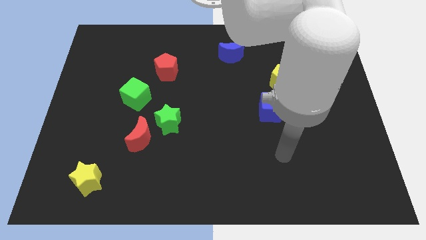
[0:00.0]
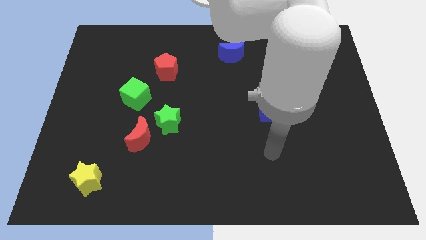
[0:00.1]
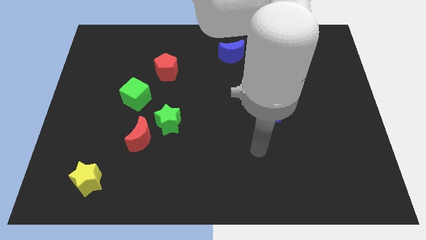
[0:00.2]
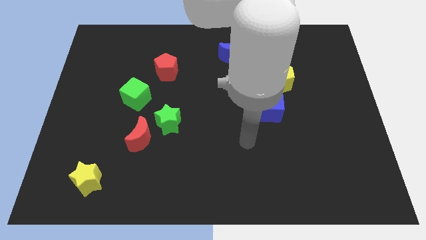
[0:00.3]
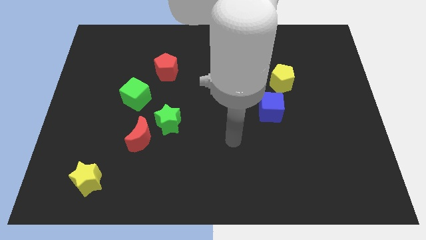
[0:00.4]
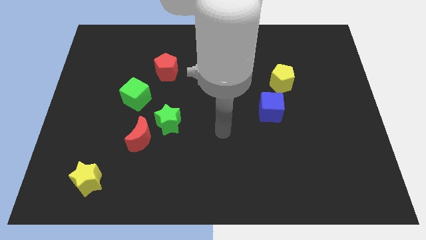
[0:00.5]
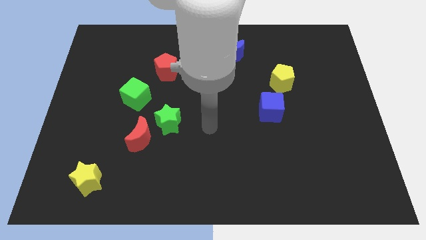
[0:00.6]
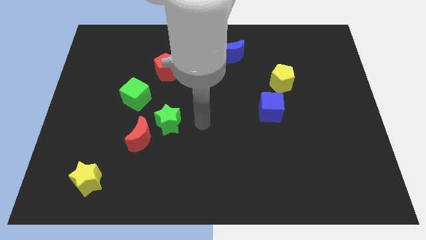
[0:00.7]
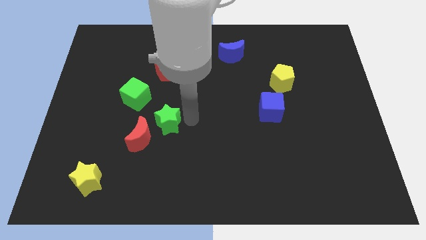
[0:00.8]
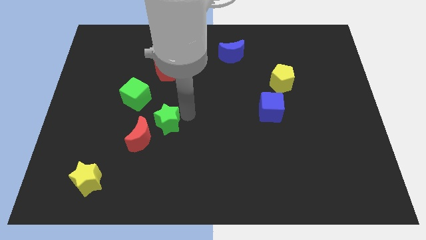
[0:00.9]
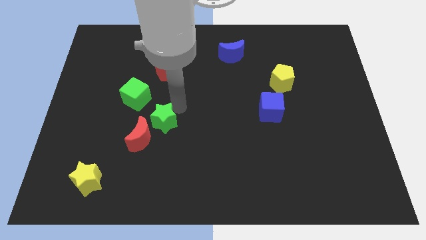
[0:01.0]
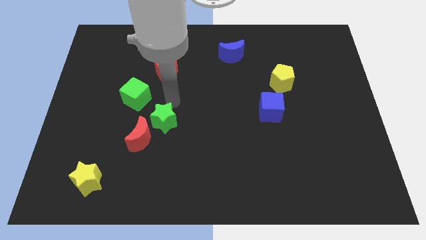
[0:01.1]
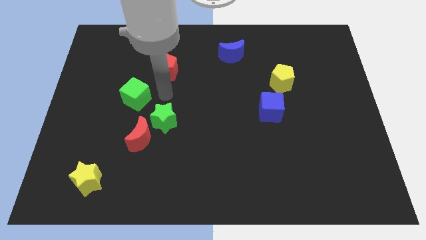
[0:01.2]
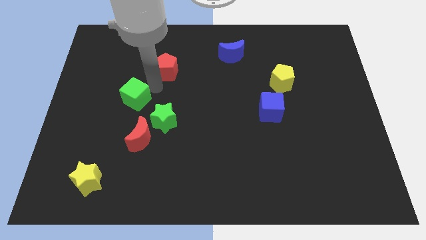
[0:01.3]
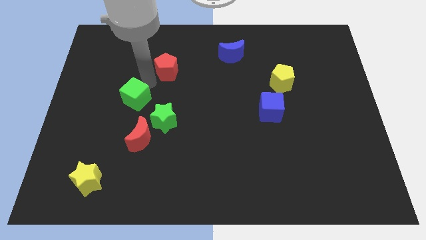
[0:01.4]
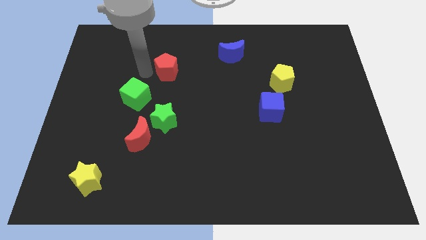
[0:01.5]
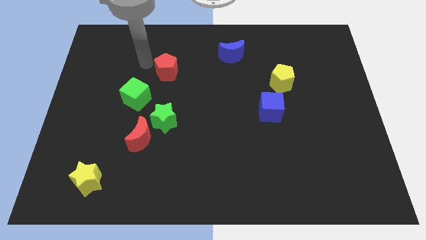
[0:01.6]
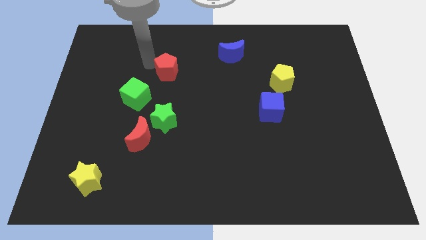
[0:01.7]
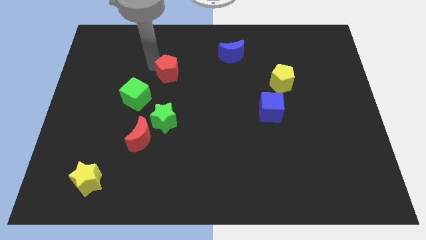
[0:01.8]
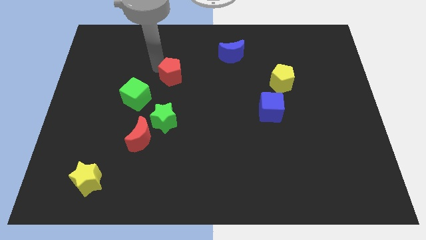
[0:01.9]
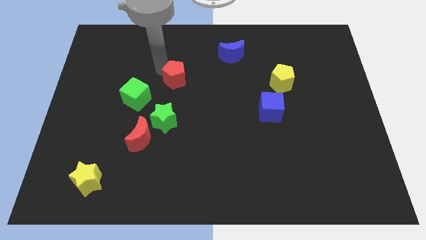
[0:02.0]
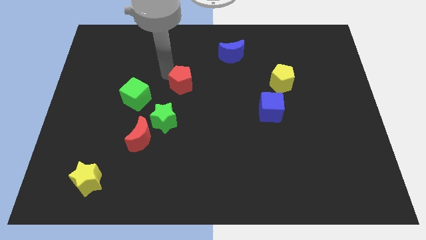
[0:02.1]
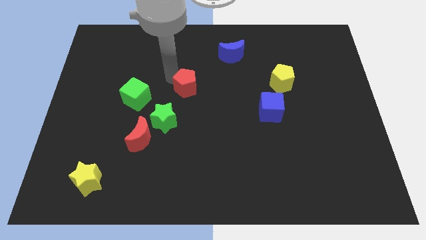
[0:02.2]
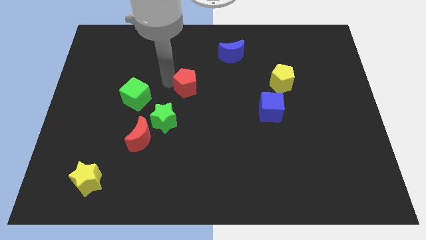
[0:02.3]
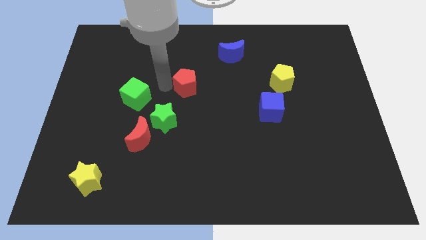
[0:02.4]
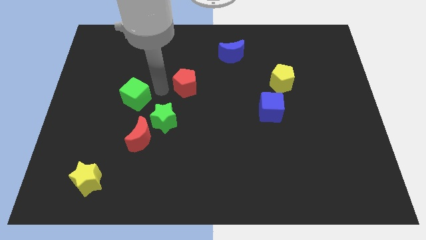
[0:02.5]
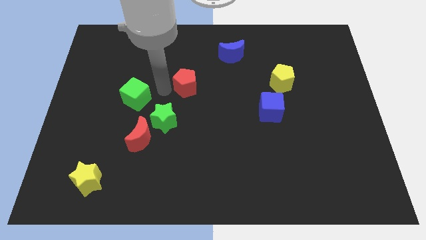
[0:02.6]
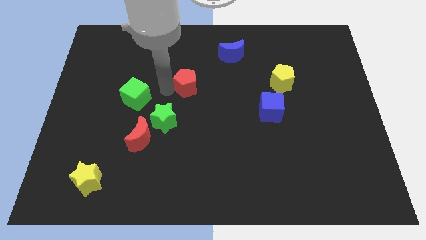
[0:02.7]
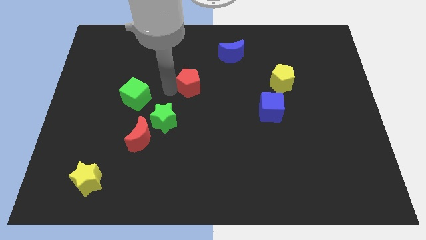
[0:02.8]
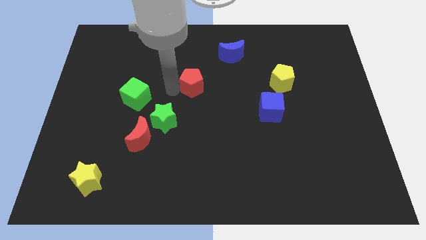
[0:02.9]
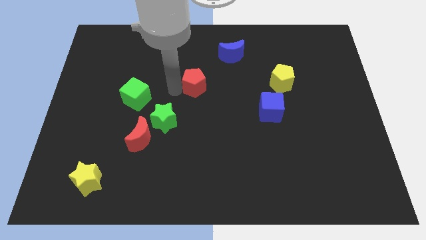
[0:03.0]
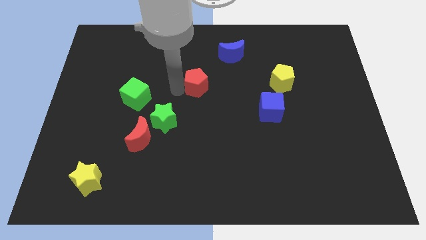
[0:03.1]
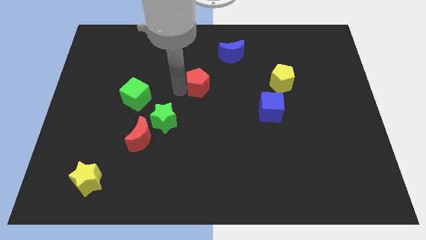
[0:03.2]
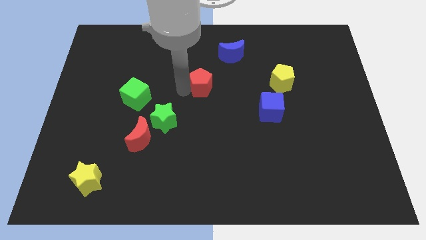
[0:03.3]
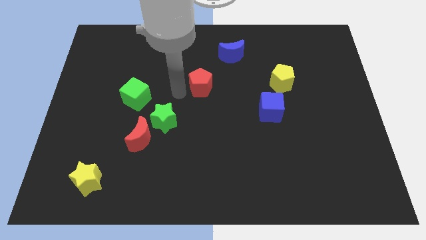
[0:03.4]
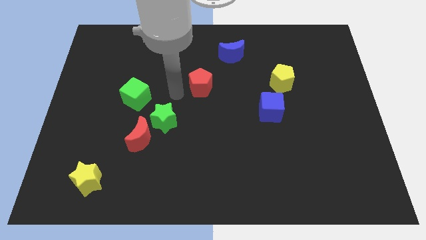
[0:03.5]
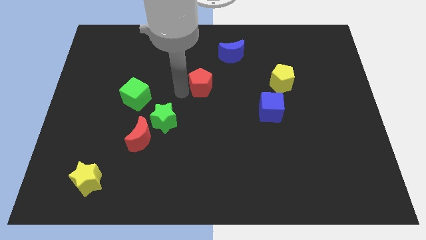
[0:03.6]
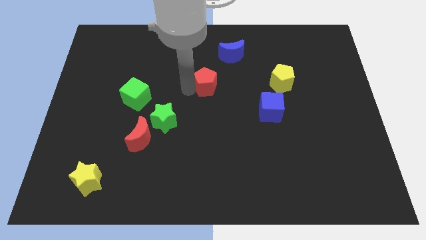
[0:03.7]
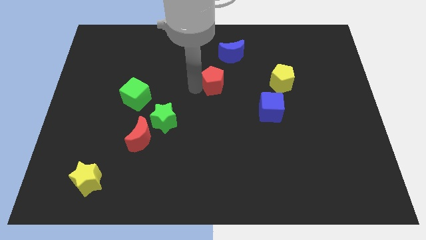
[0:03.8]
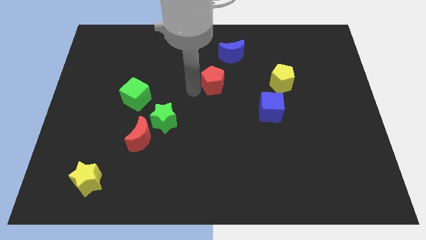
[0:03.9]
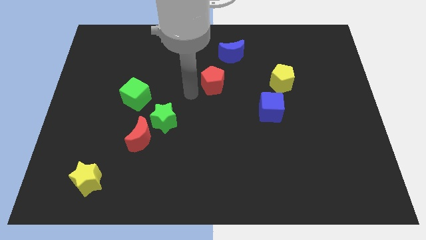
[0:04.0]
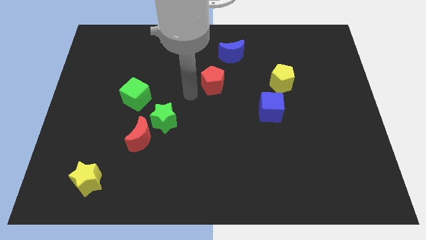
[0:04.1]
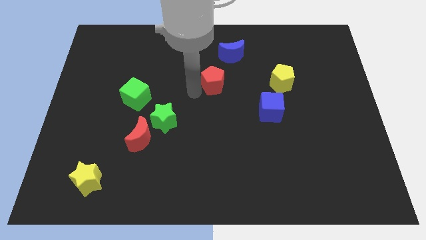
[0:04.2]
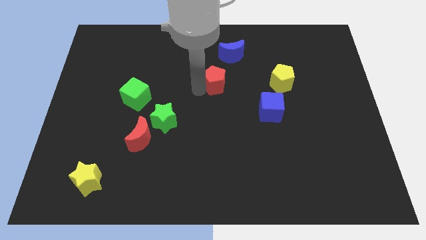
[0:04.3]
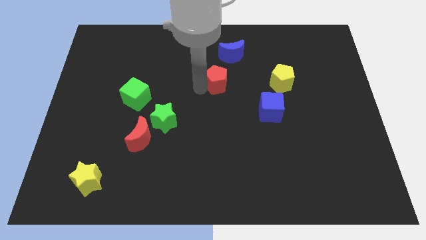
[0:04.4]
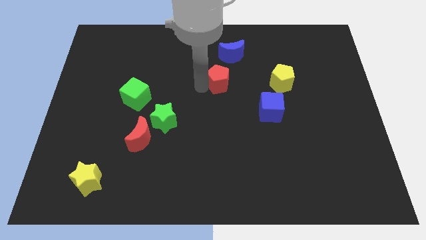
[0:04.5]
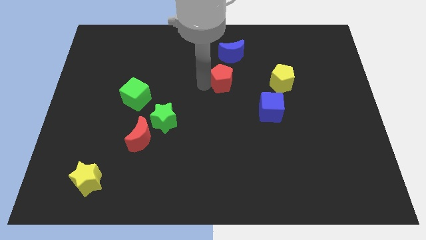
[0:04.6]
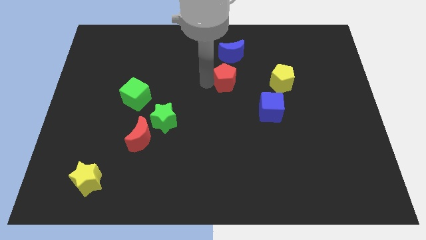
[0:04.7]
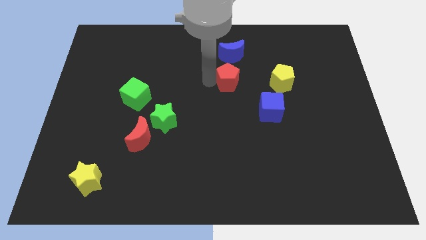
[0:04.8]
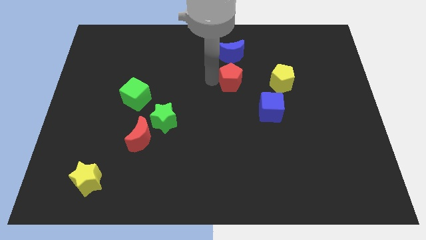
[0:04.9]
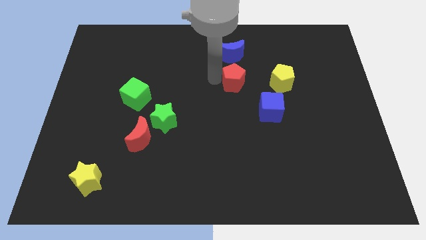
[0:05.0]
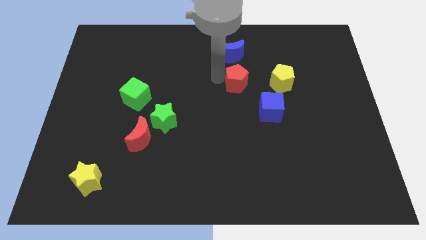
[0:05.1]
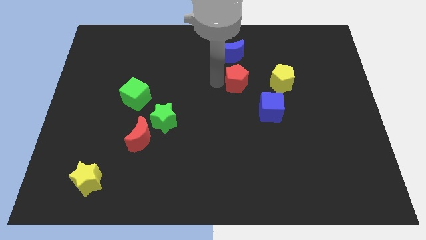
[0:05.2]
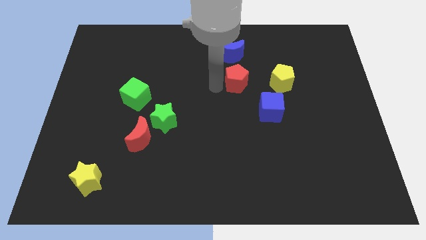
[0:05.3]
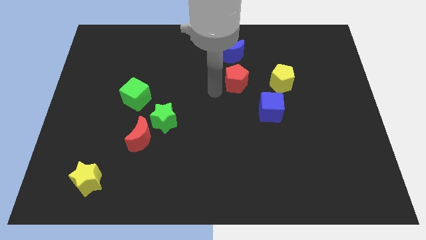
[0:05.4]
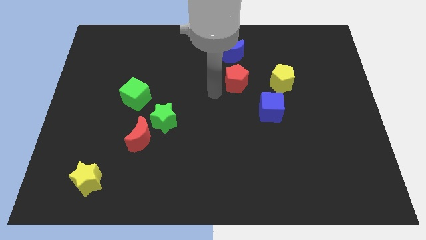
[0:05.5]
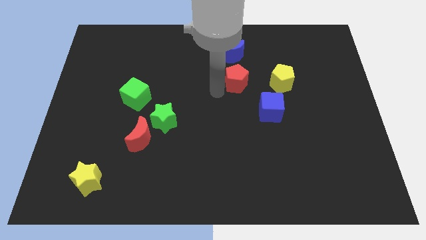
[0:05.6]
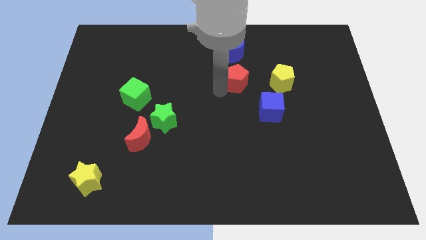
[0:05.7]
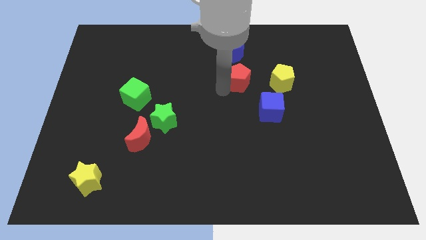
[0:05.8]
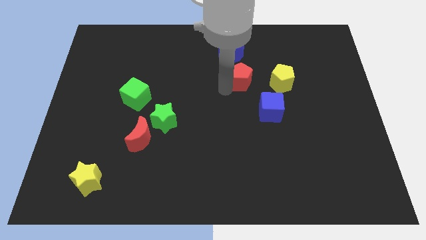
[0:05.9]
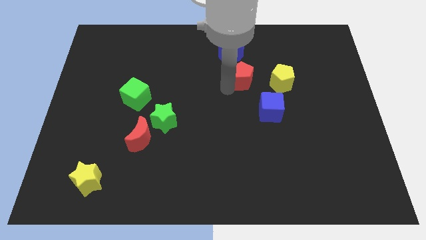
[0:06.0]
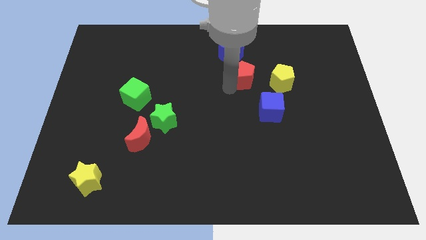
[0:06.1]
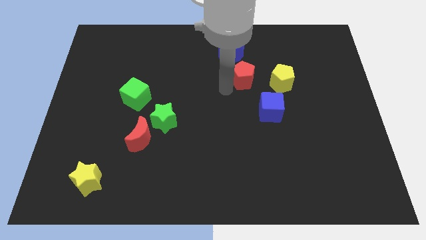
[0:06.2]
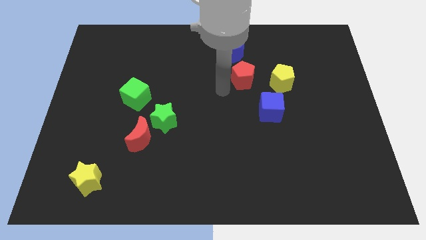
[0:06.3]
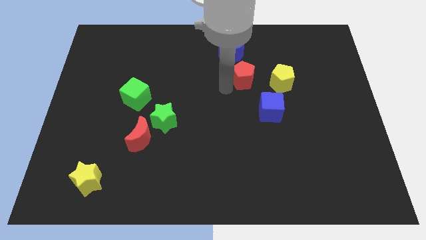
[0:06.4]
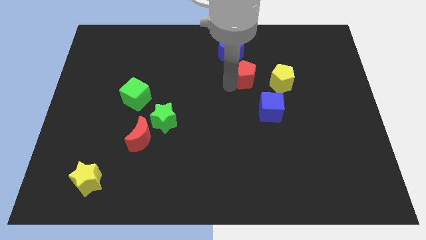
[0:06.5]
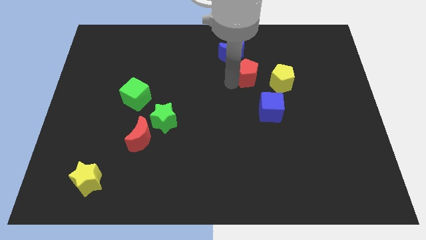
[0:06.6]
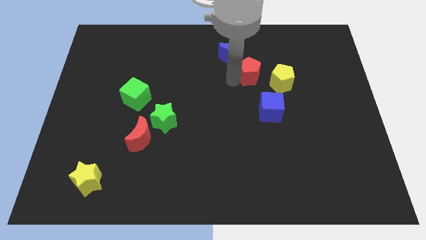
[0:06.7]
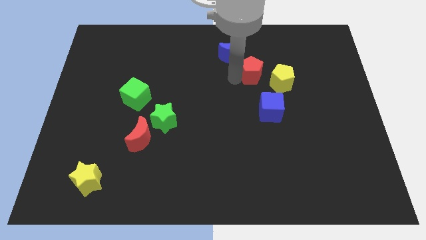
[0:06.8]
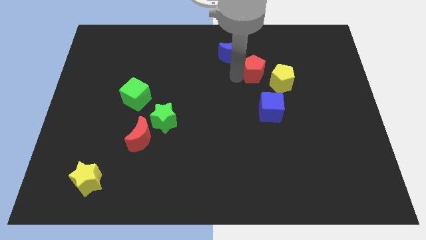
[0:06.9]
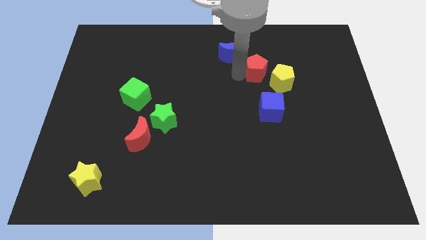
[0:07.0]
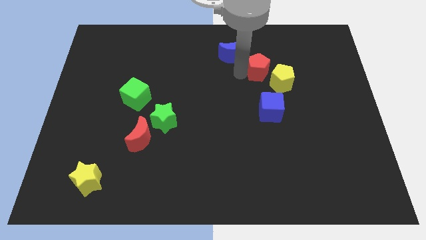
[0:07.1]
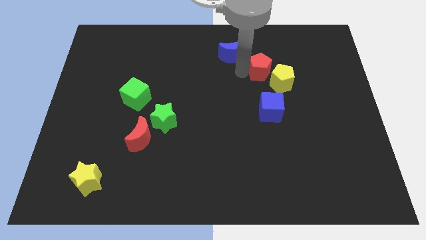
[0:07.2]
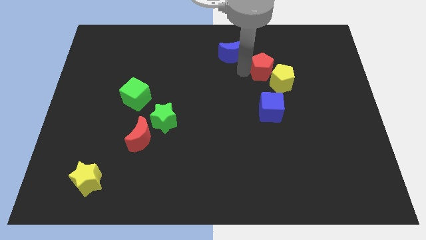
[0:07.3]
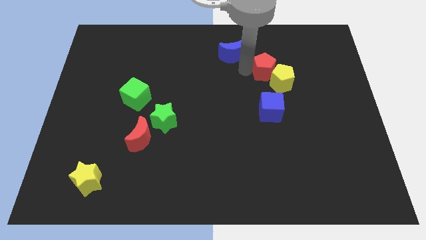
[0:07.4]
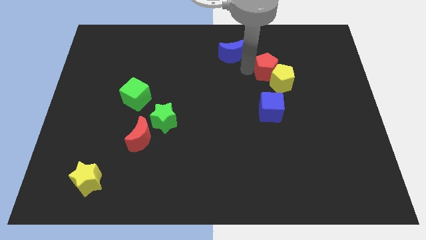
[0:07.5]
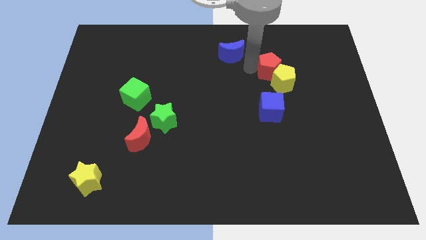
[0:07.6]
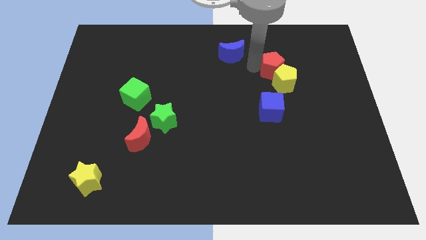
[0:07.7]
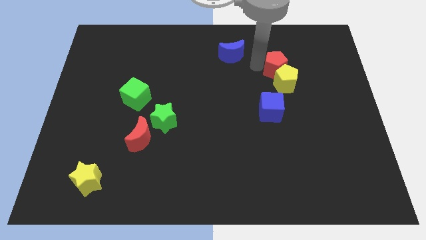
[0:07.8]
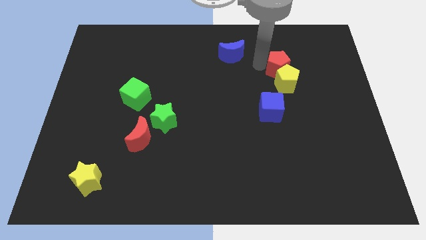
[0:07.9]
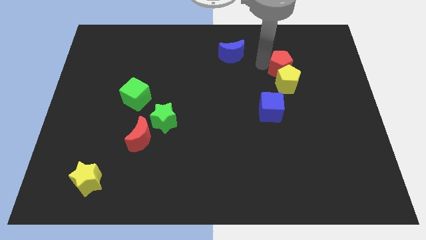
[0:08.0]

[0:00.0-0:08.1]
put the red pentagon to the top right of the yellow pentagon

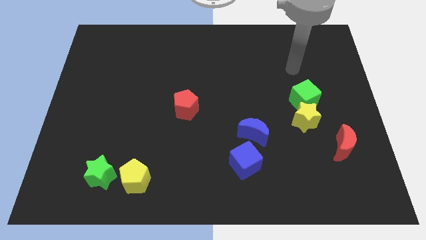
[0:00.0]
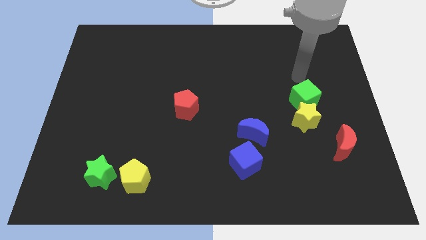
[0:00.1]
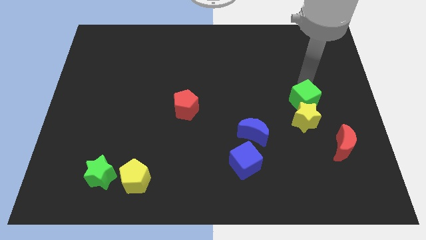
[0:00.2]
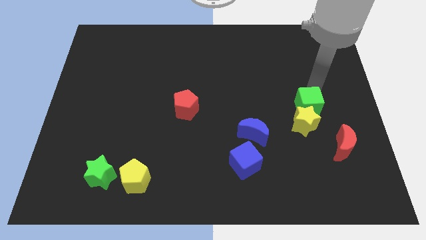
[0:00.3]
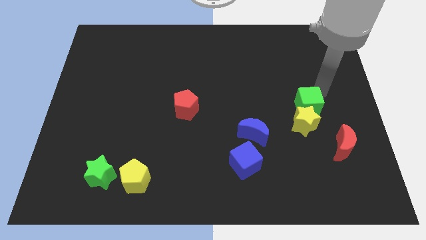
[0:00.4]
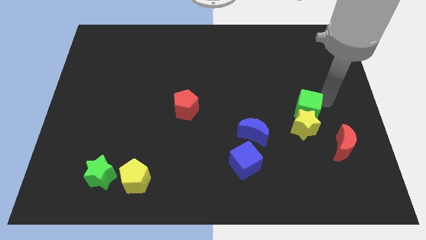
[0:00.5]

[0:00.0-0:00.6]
put the red moon to the bottom right of the green cube

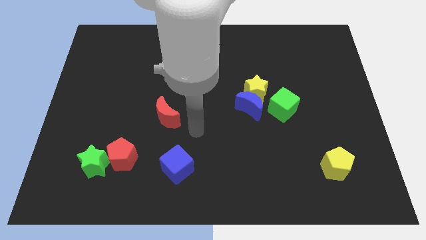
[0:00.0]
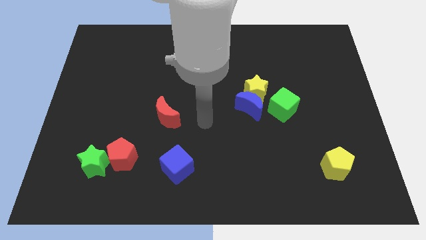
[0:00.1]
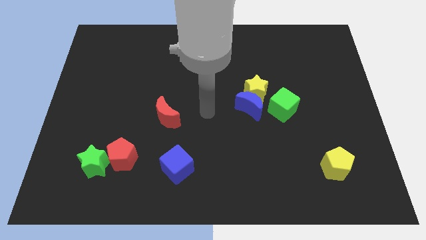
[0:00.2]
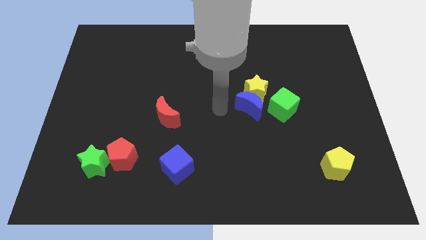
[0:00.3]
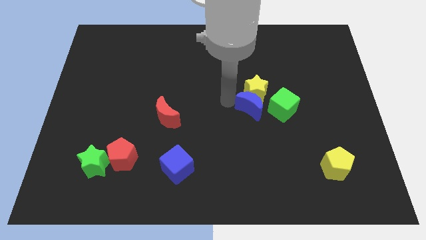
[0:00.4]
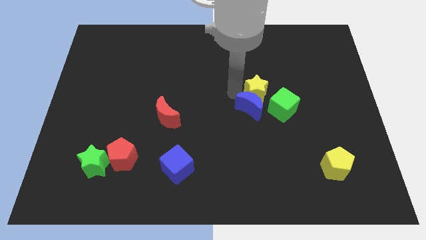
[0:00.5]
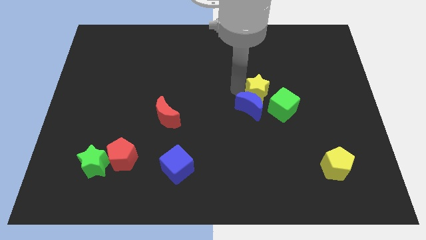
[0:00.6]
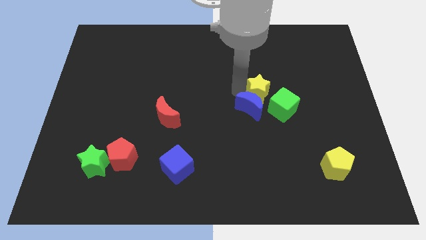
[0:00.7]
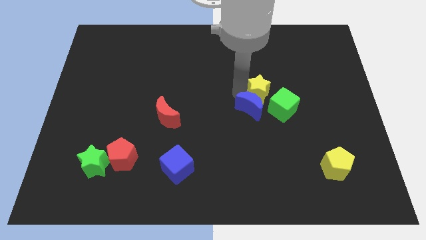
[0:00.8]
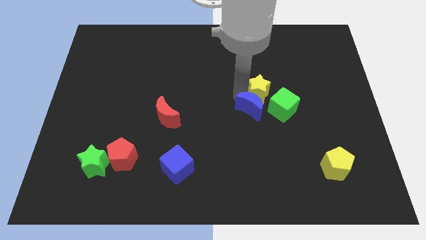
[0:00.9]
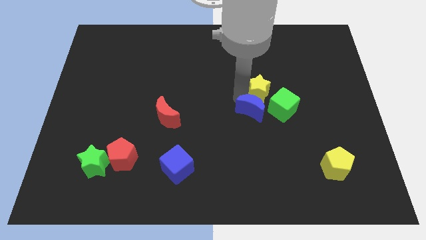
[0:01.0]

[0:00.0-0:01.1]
push the blue moon diagonally down and to the left of the green cube
